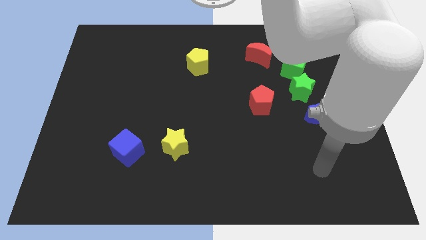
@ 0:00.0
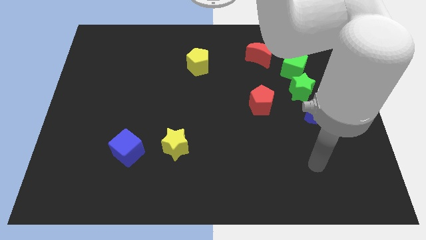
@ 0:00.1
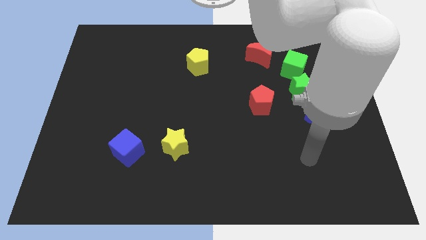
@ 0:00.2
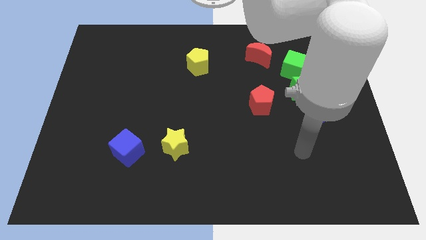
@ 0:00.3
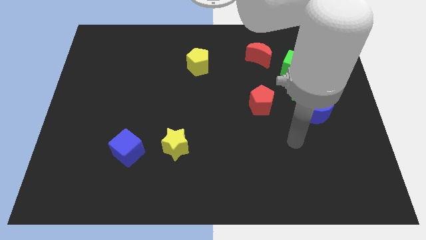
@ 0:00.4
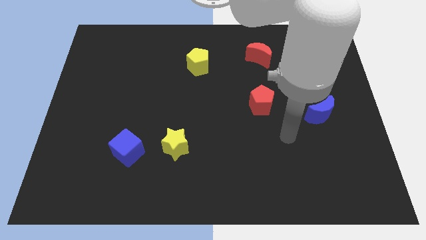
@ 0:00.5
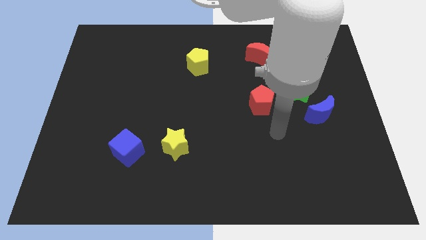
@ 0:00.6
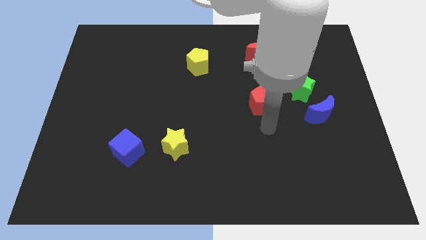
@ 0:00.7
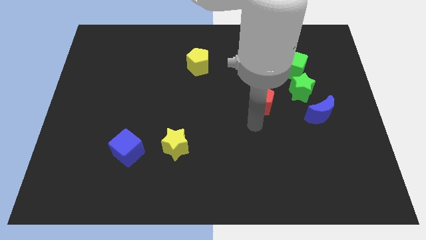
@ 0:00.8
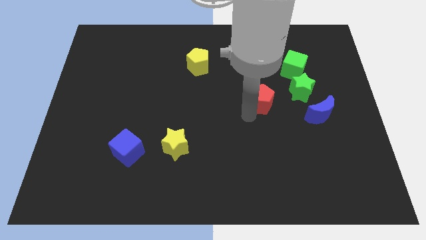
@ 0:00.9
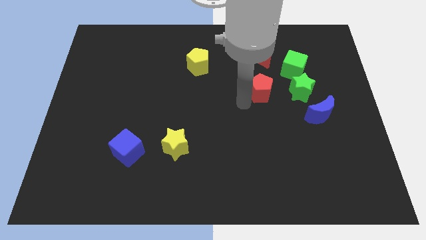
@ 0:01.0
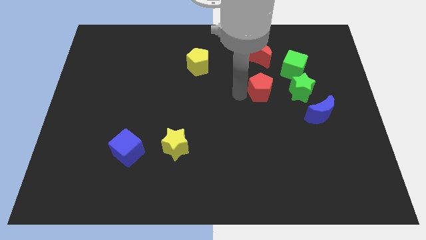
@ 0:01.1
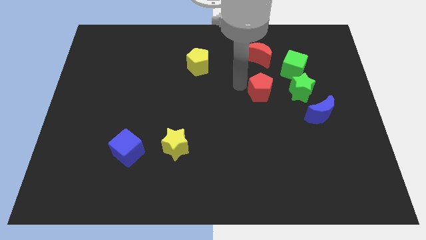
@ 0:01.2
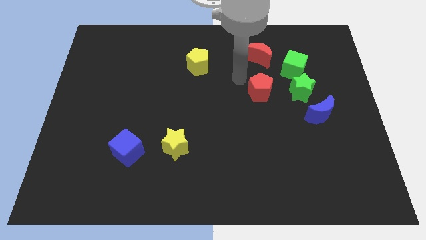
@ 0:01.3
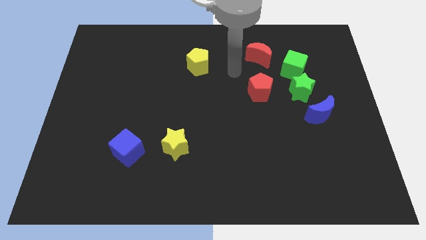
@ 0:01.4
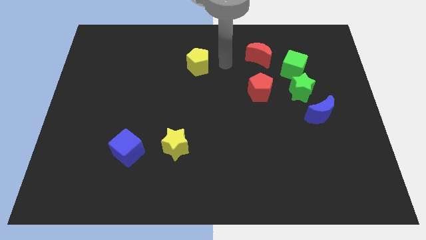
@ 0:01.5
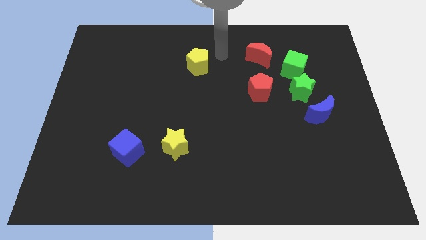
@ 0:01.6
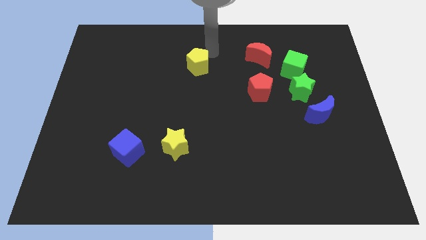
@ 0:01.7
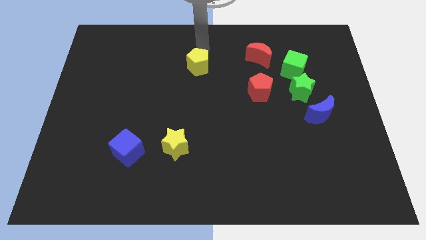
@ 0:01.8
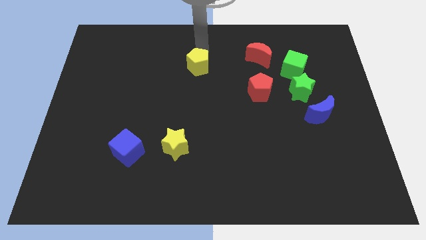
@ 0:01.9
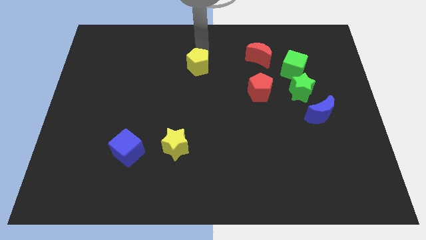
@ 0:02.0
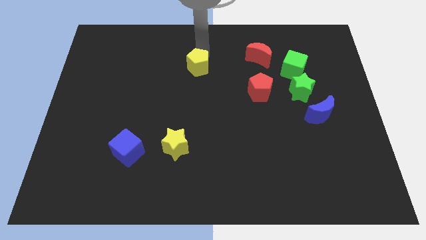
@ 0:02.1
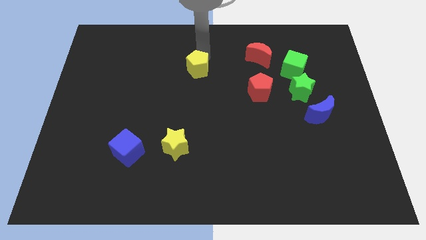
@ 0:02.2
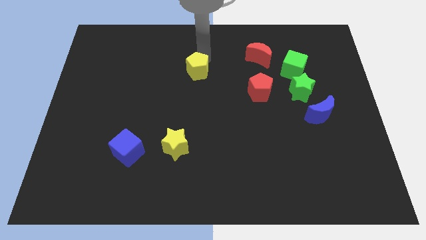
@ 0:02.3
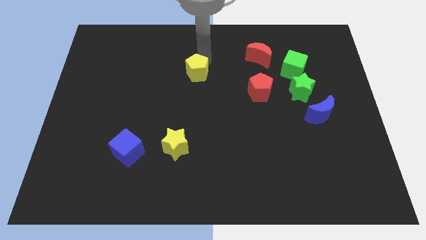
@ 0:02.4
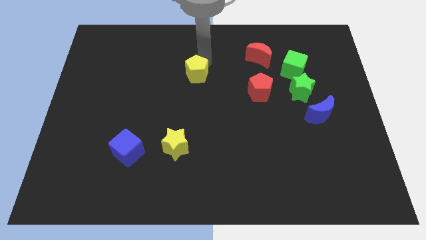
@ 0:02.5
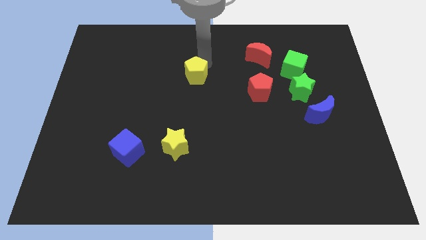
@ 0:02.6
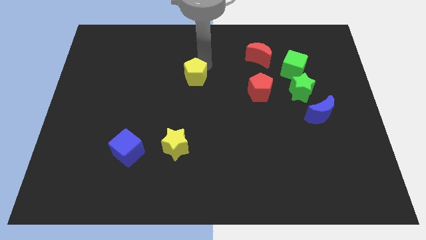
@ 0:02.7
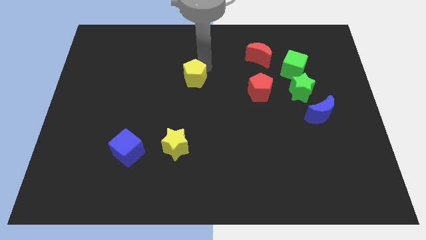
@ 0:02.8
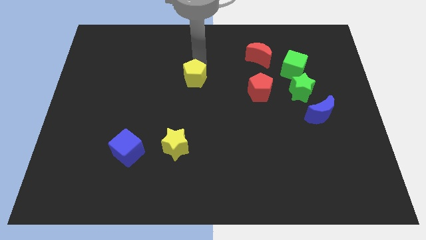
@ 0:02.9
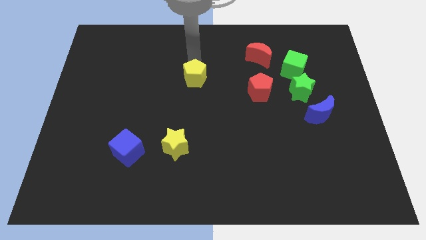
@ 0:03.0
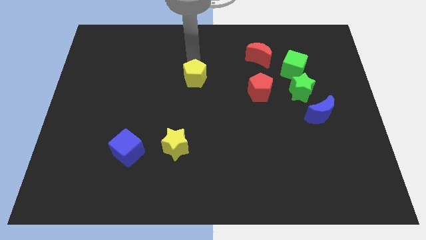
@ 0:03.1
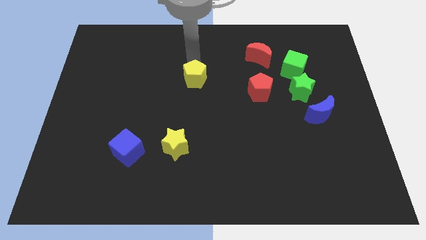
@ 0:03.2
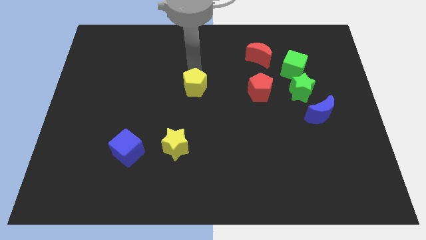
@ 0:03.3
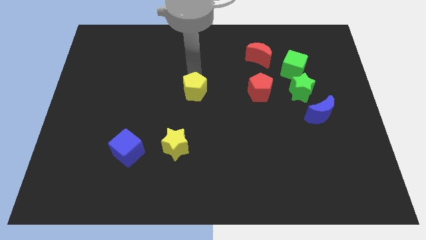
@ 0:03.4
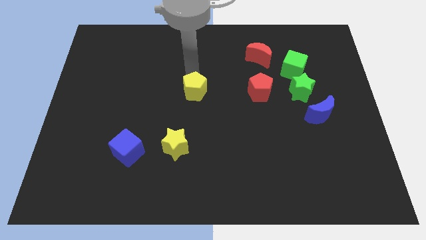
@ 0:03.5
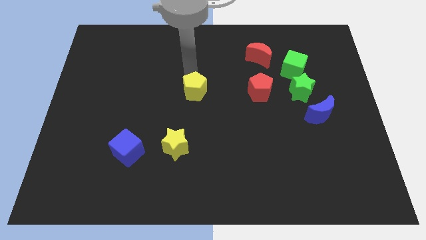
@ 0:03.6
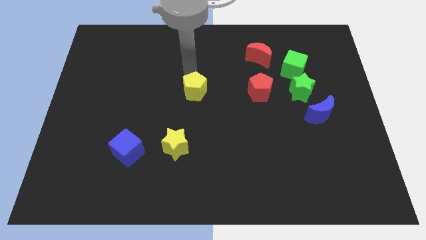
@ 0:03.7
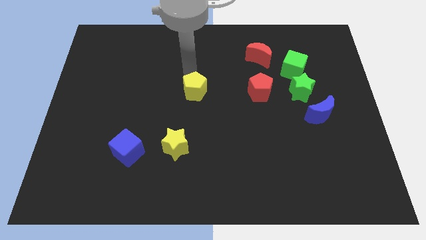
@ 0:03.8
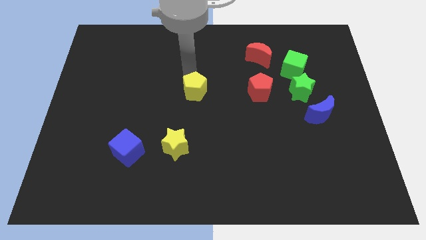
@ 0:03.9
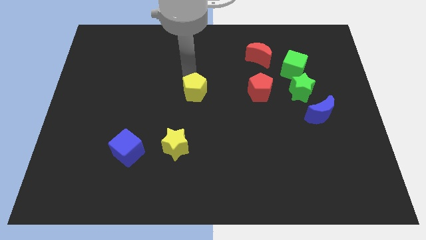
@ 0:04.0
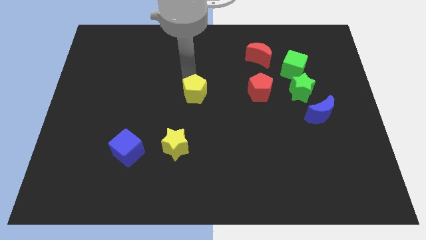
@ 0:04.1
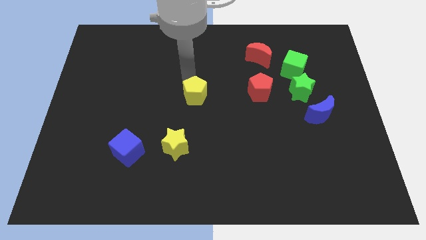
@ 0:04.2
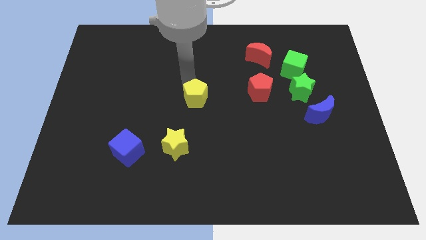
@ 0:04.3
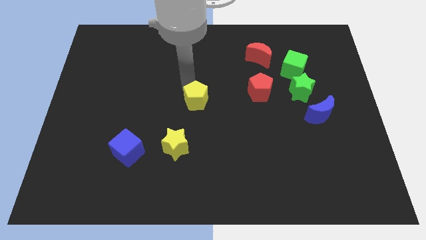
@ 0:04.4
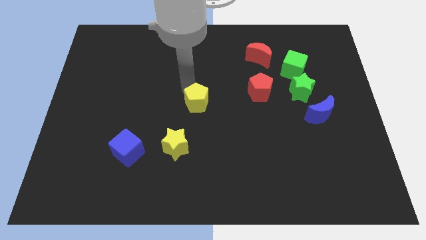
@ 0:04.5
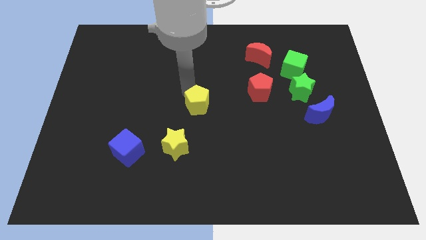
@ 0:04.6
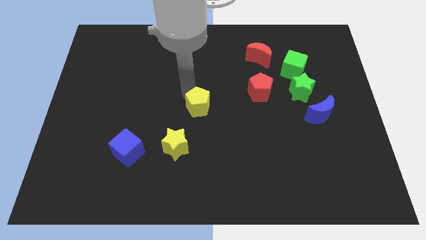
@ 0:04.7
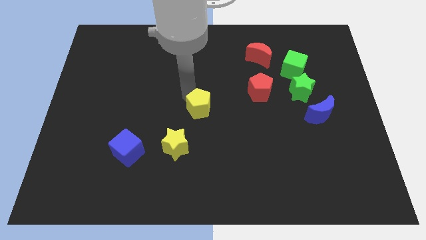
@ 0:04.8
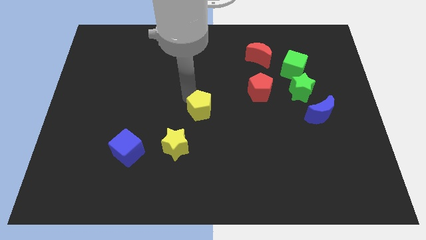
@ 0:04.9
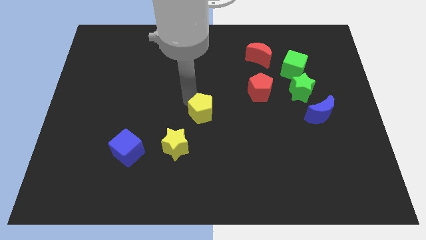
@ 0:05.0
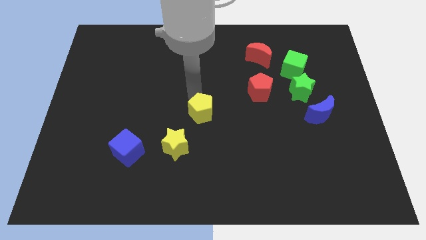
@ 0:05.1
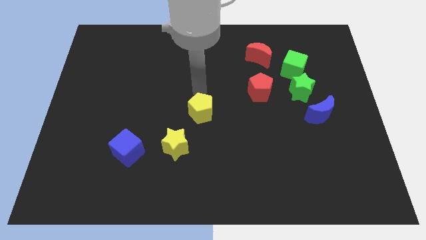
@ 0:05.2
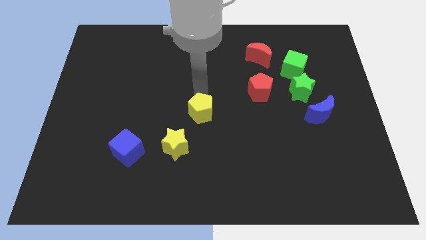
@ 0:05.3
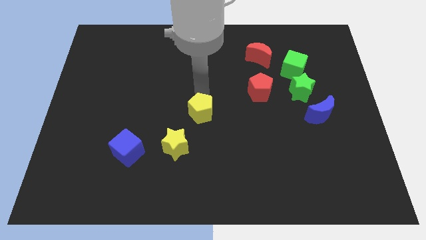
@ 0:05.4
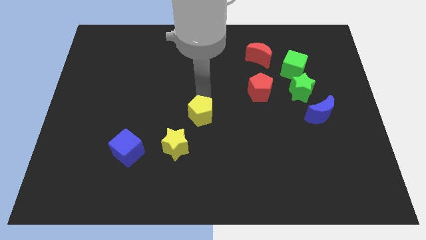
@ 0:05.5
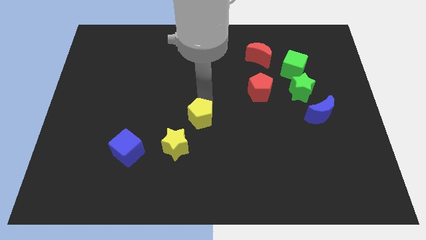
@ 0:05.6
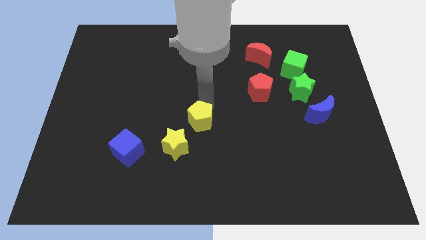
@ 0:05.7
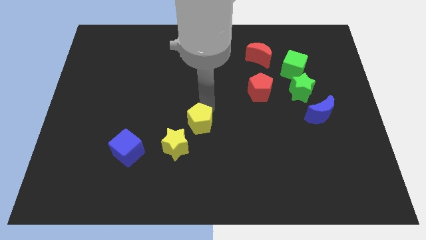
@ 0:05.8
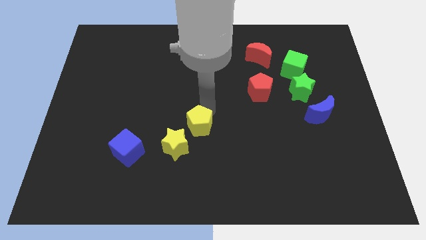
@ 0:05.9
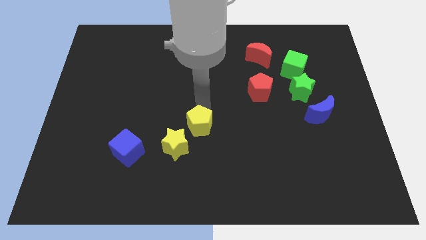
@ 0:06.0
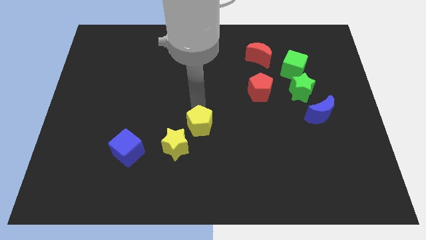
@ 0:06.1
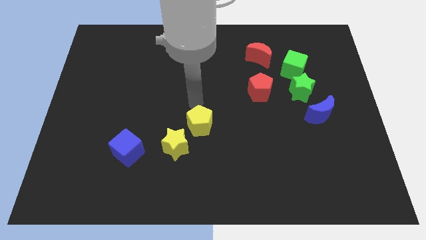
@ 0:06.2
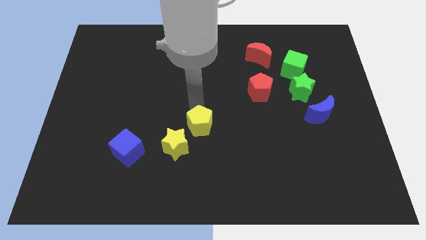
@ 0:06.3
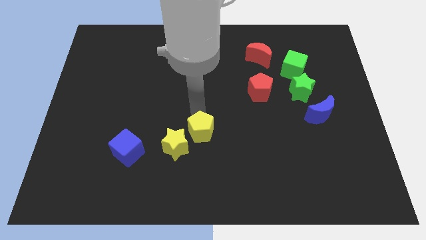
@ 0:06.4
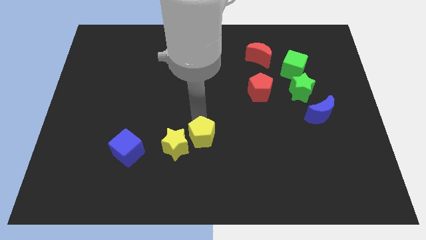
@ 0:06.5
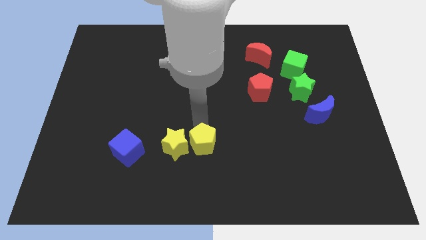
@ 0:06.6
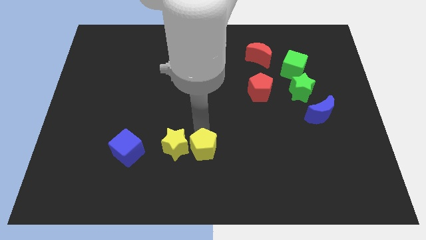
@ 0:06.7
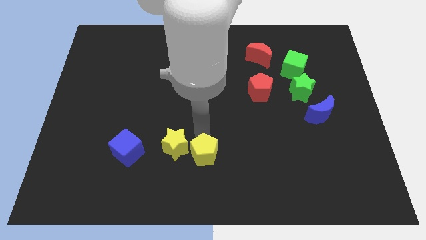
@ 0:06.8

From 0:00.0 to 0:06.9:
slide the yellow pentagon to the bottom
